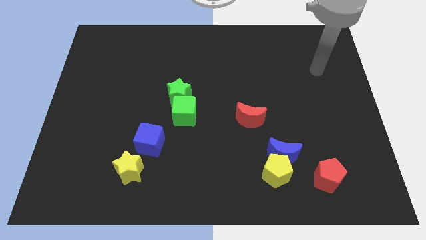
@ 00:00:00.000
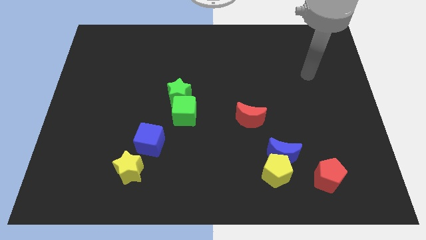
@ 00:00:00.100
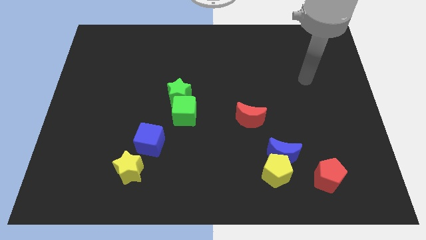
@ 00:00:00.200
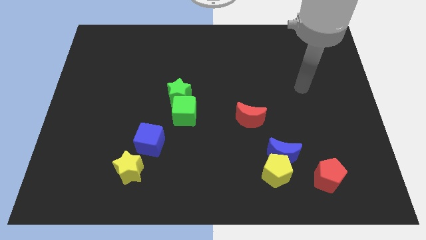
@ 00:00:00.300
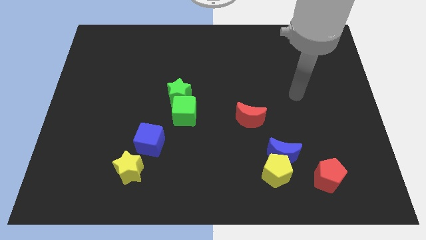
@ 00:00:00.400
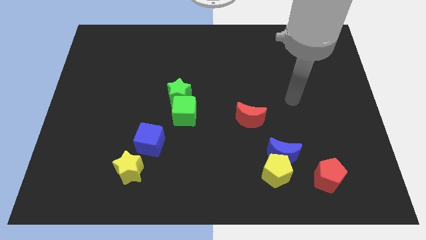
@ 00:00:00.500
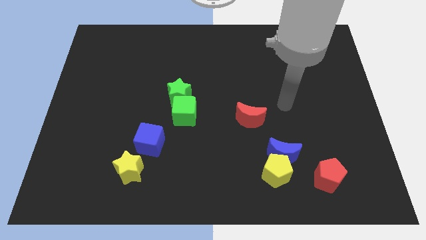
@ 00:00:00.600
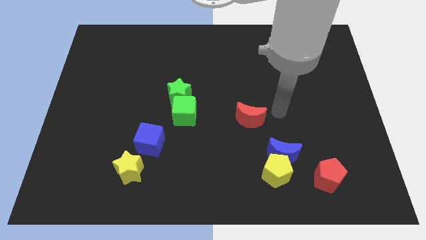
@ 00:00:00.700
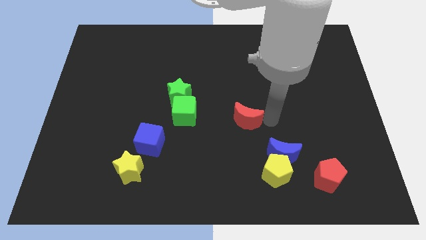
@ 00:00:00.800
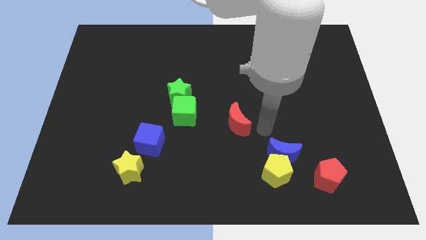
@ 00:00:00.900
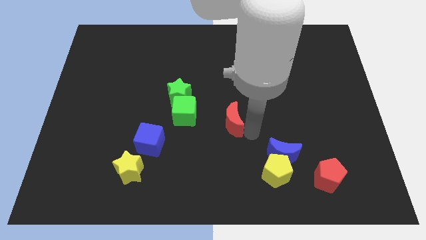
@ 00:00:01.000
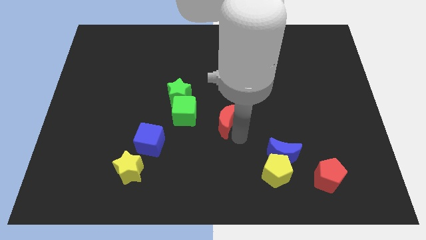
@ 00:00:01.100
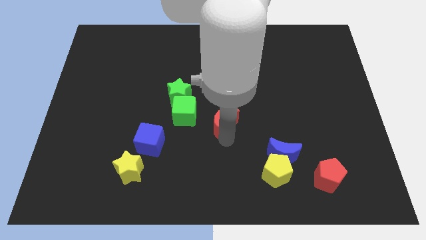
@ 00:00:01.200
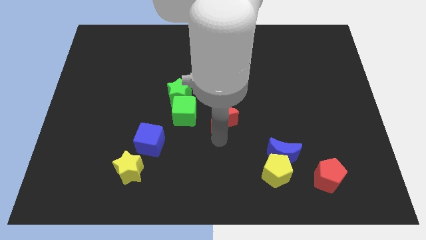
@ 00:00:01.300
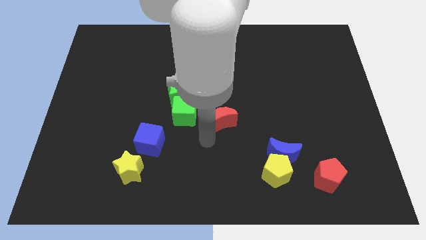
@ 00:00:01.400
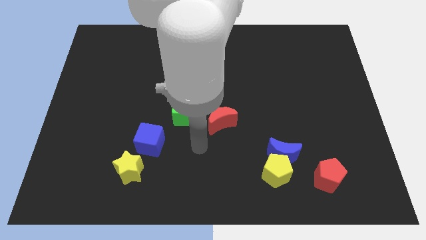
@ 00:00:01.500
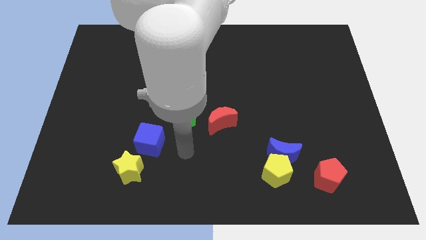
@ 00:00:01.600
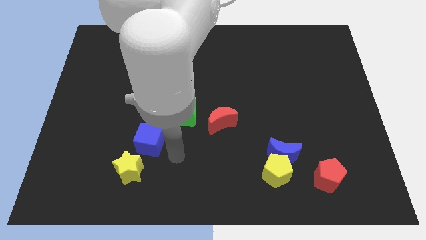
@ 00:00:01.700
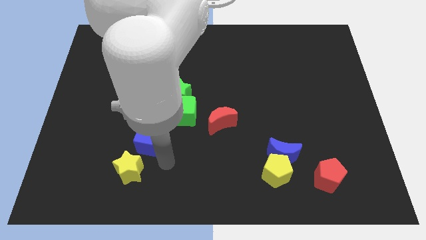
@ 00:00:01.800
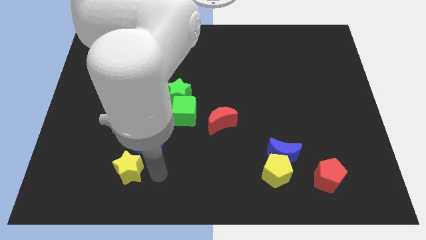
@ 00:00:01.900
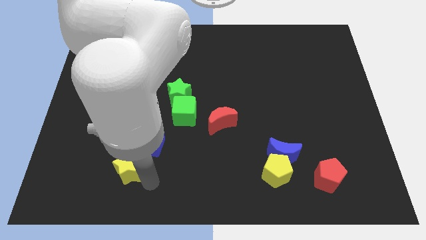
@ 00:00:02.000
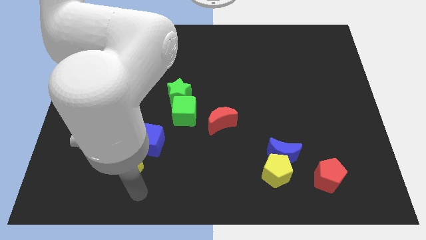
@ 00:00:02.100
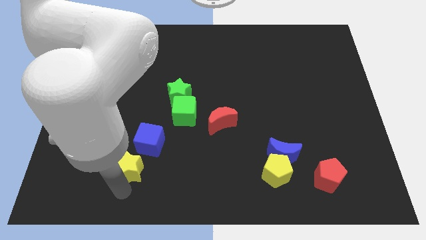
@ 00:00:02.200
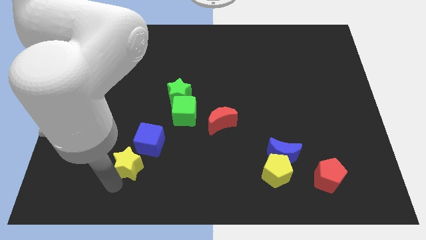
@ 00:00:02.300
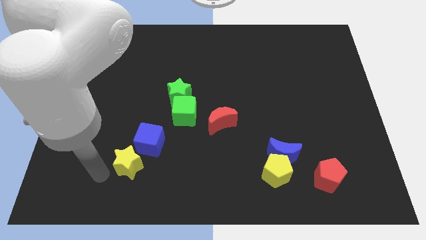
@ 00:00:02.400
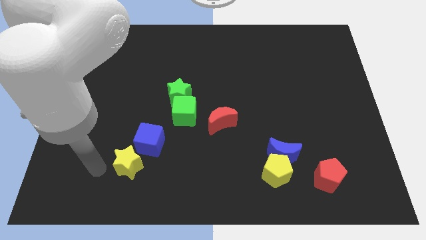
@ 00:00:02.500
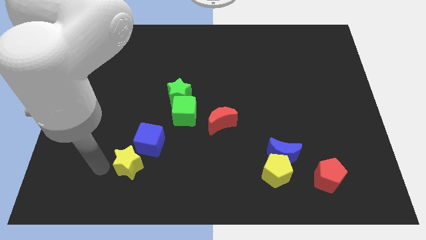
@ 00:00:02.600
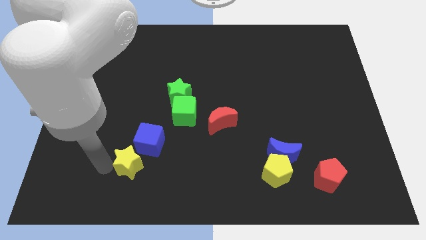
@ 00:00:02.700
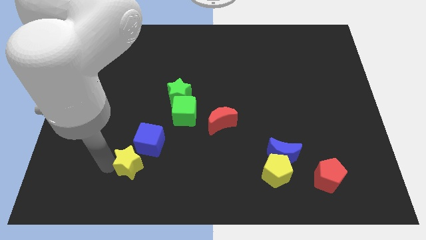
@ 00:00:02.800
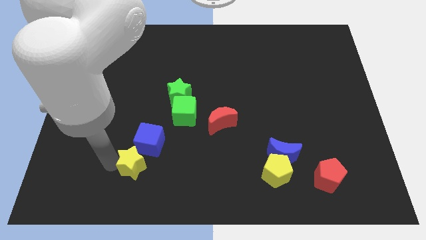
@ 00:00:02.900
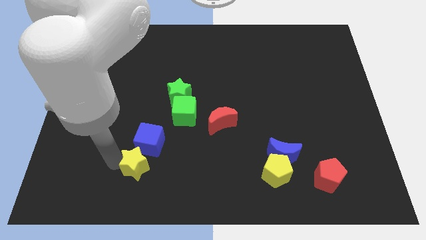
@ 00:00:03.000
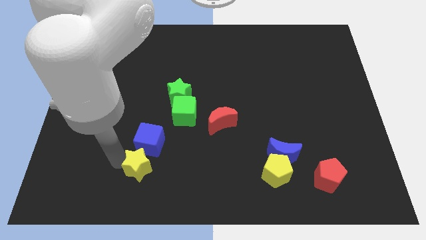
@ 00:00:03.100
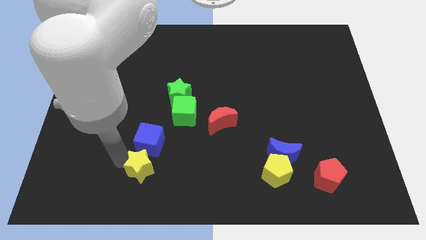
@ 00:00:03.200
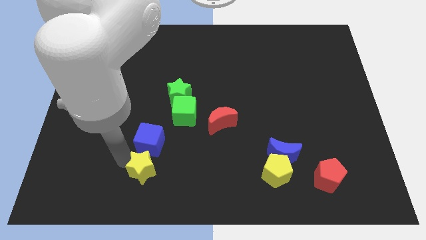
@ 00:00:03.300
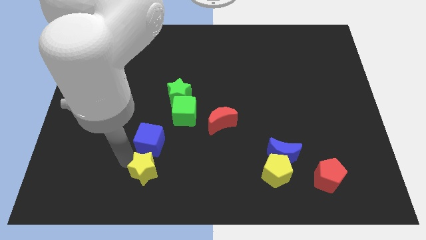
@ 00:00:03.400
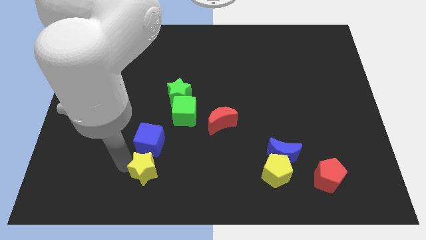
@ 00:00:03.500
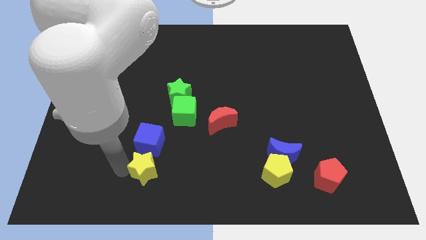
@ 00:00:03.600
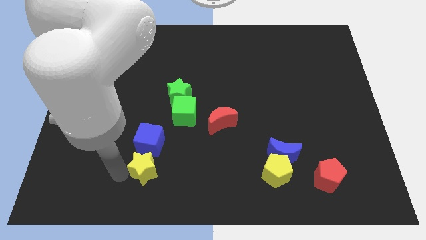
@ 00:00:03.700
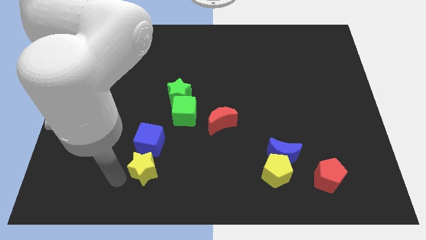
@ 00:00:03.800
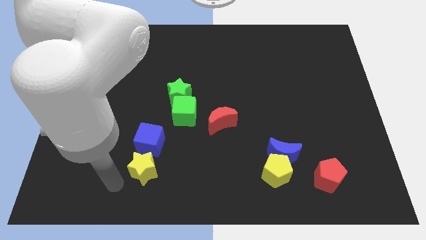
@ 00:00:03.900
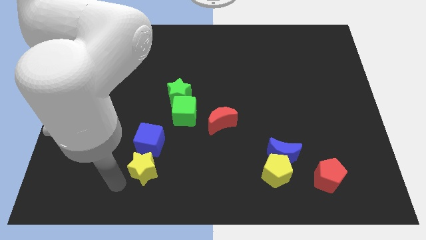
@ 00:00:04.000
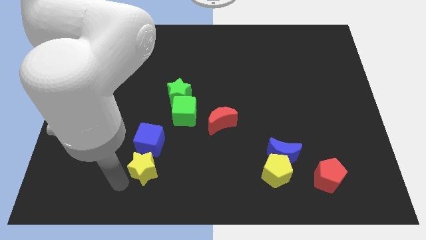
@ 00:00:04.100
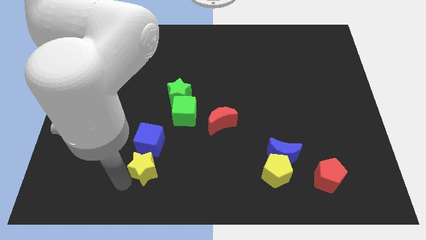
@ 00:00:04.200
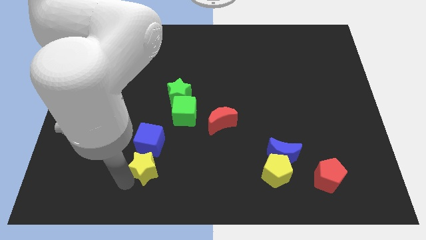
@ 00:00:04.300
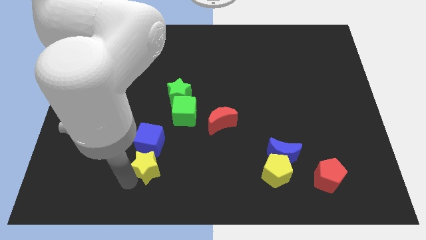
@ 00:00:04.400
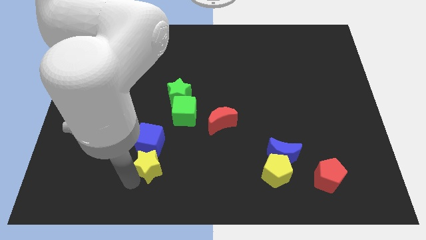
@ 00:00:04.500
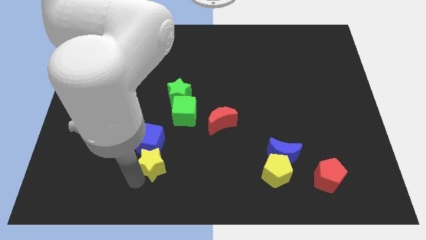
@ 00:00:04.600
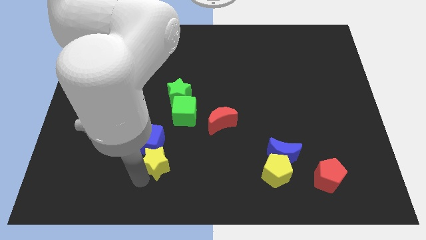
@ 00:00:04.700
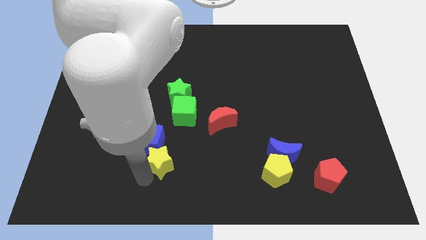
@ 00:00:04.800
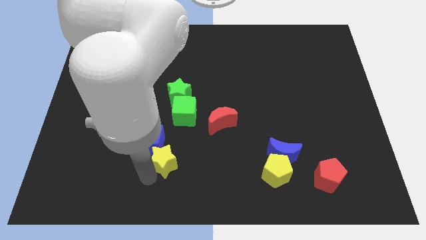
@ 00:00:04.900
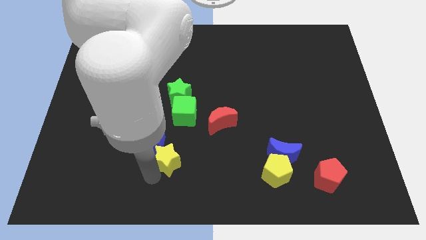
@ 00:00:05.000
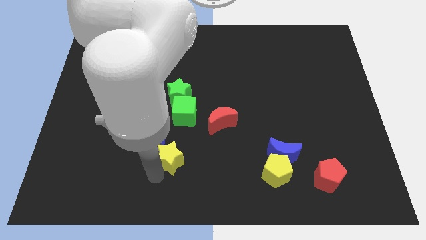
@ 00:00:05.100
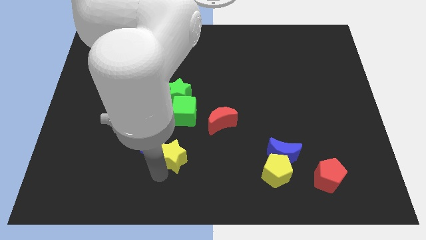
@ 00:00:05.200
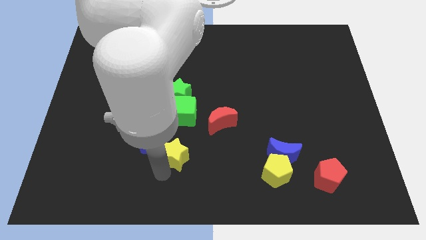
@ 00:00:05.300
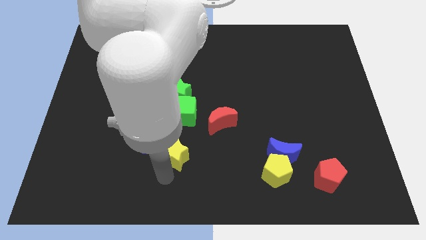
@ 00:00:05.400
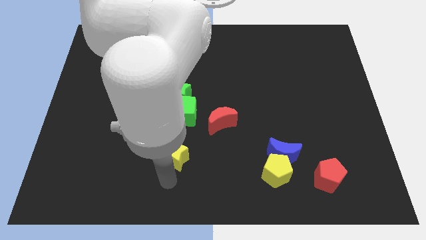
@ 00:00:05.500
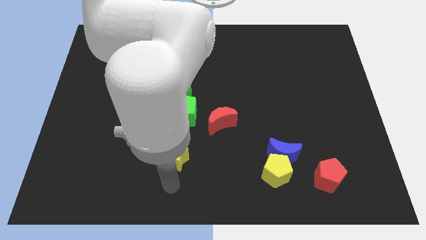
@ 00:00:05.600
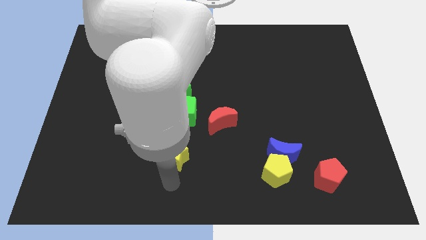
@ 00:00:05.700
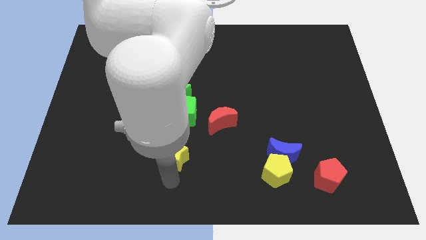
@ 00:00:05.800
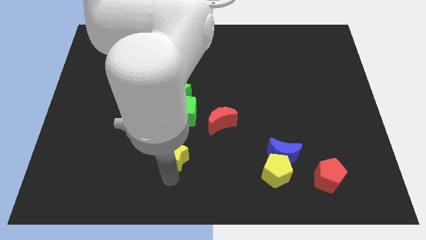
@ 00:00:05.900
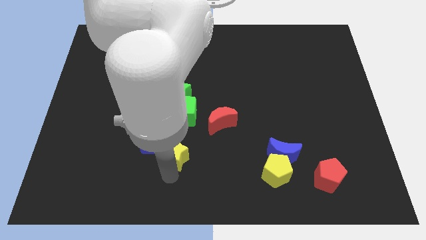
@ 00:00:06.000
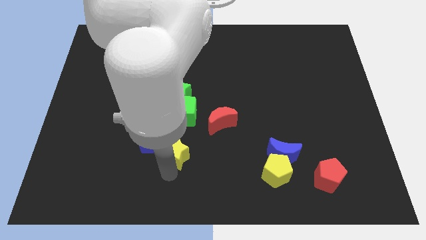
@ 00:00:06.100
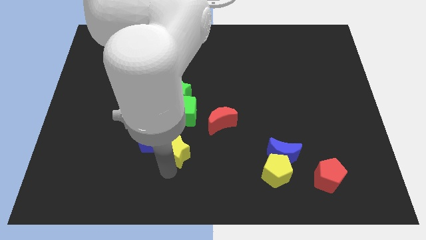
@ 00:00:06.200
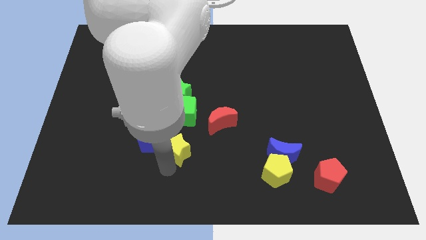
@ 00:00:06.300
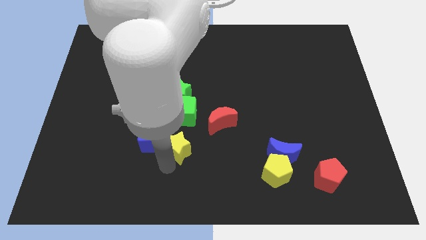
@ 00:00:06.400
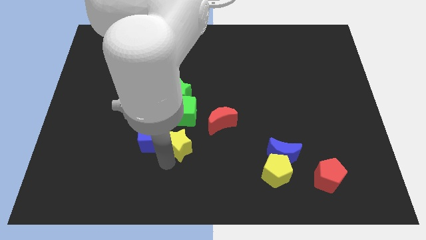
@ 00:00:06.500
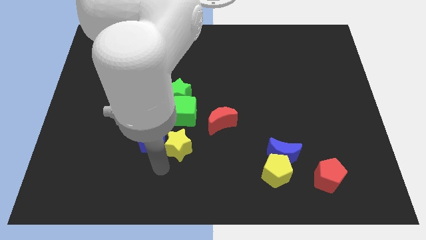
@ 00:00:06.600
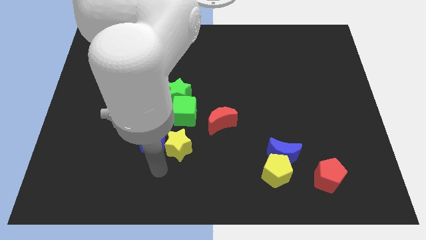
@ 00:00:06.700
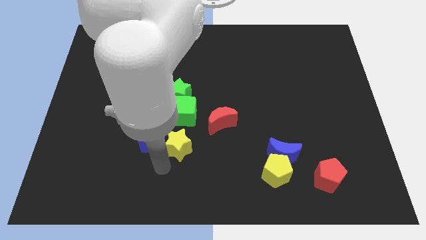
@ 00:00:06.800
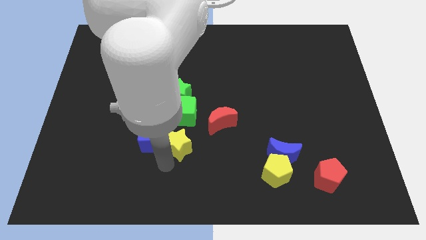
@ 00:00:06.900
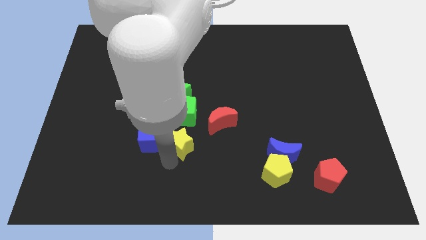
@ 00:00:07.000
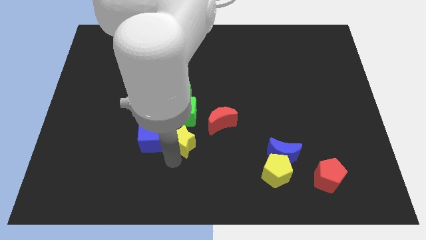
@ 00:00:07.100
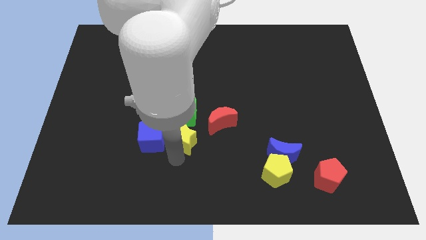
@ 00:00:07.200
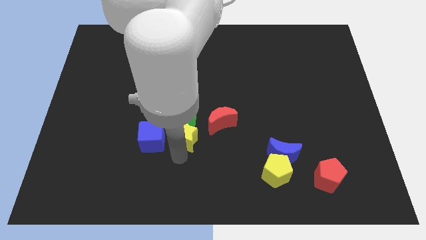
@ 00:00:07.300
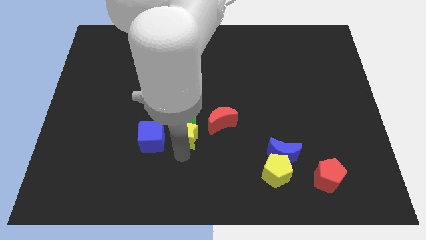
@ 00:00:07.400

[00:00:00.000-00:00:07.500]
push the yellow star to the middle of the board

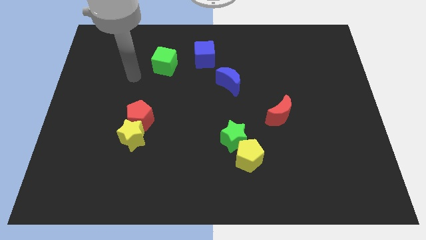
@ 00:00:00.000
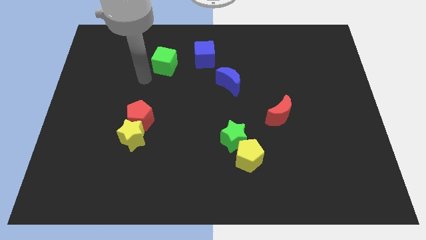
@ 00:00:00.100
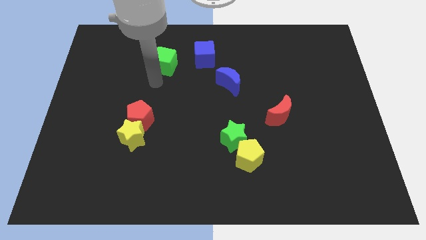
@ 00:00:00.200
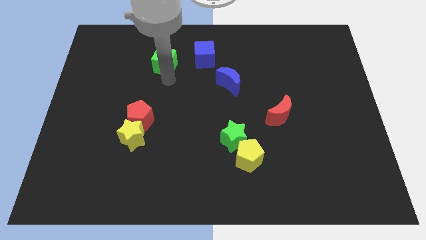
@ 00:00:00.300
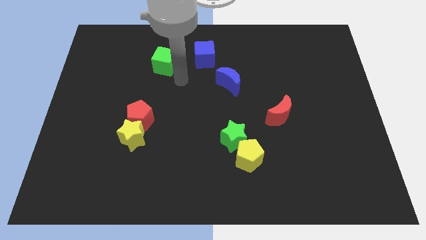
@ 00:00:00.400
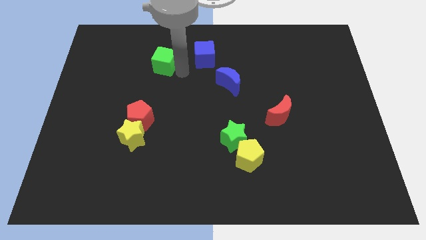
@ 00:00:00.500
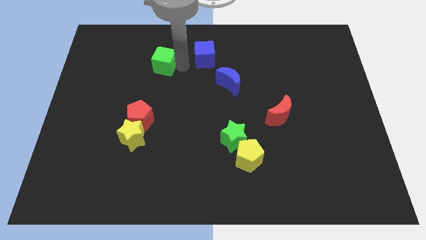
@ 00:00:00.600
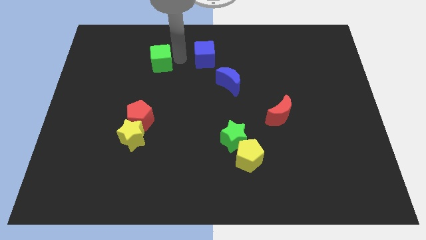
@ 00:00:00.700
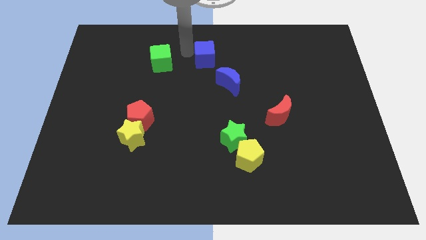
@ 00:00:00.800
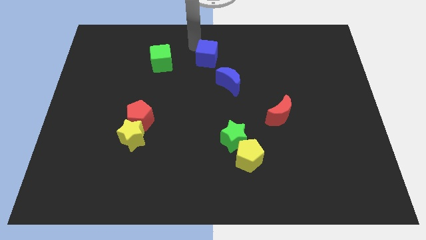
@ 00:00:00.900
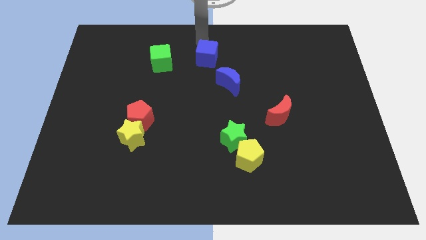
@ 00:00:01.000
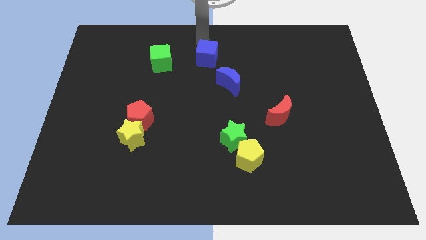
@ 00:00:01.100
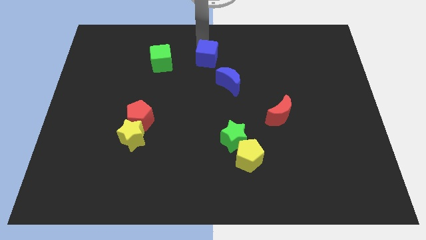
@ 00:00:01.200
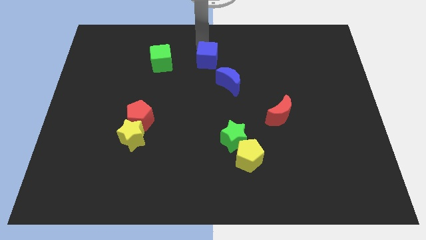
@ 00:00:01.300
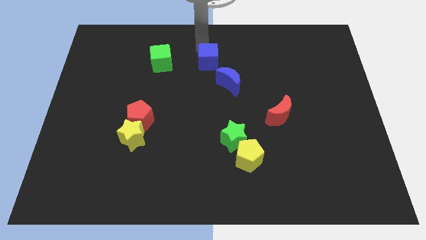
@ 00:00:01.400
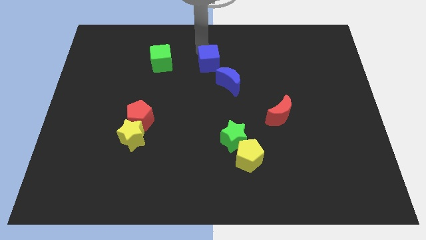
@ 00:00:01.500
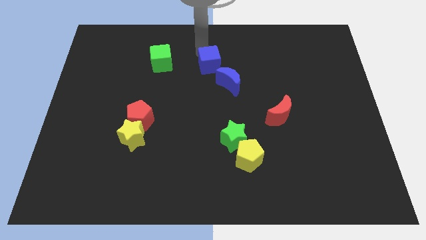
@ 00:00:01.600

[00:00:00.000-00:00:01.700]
move the blue cube to the center
